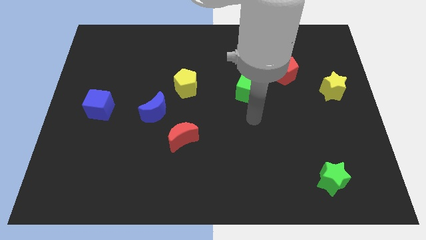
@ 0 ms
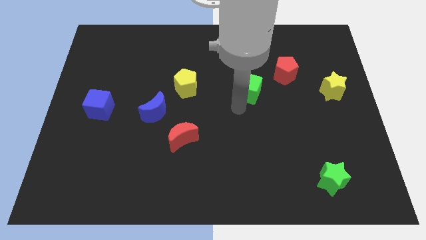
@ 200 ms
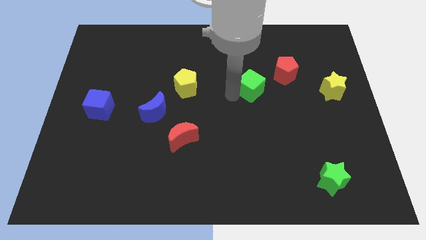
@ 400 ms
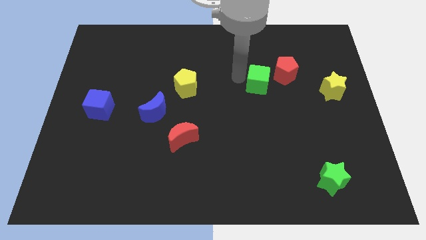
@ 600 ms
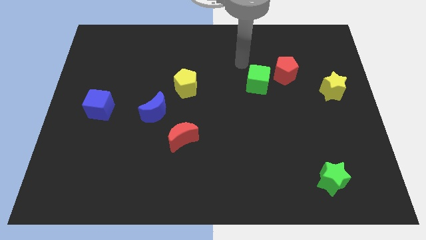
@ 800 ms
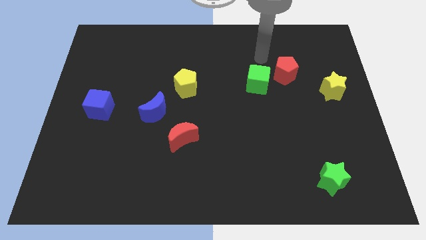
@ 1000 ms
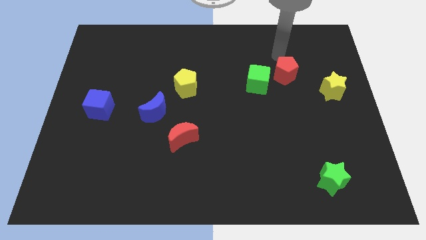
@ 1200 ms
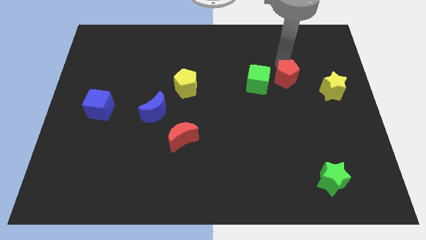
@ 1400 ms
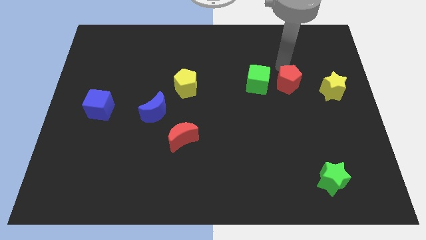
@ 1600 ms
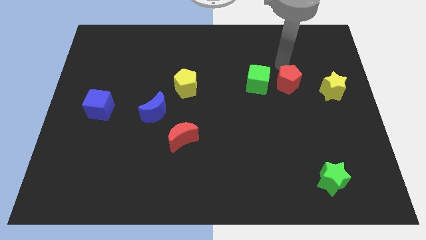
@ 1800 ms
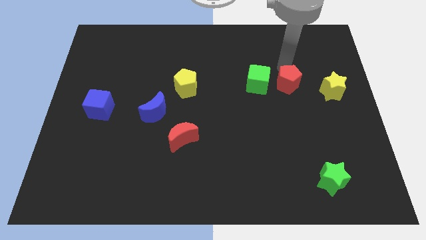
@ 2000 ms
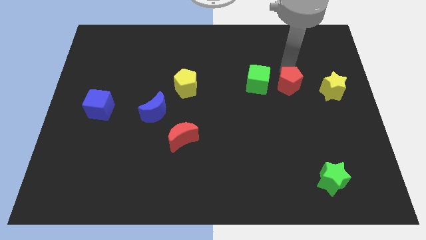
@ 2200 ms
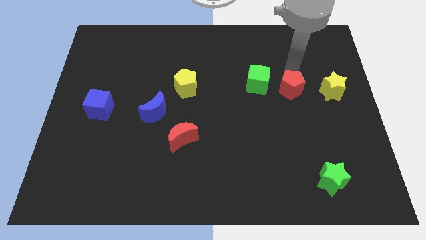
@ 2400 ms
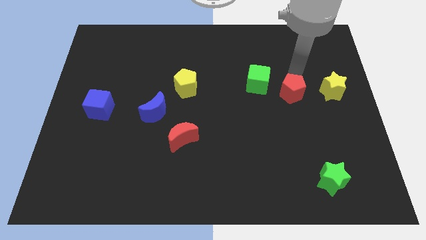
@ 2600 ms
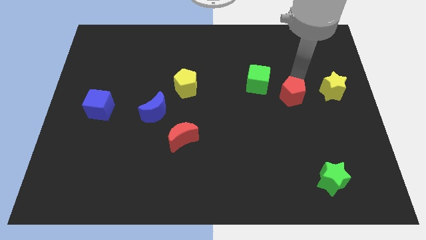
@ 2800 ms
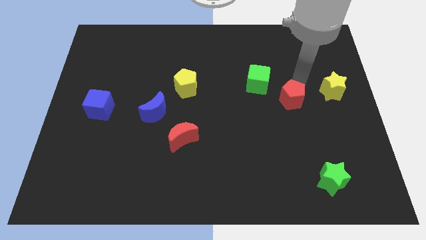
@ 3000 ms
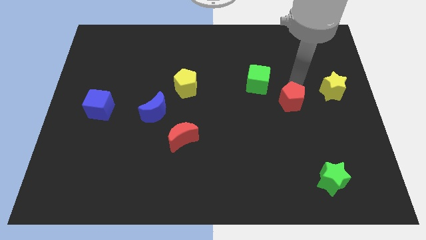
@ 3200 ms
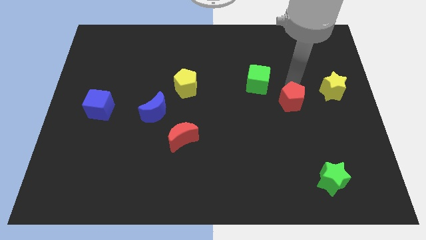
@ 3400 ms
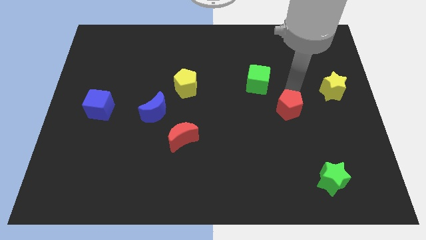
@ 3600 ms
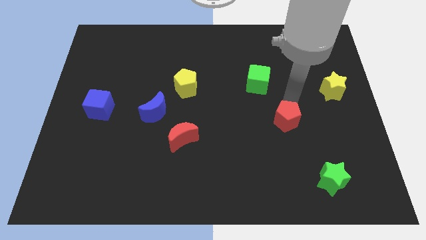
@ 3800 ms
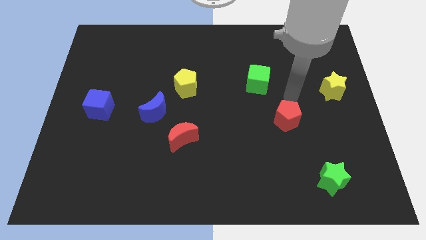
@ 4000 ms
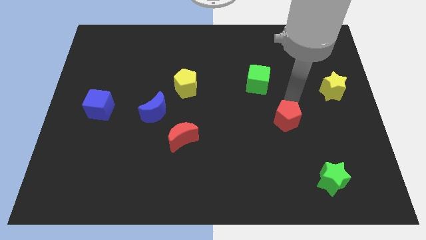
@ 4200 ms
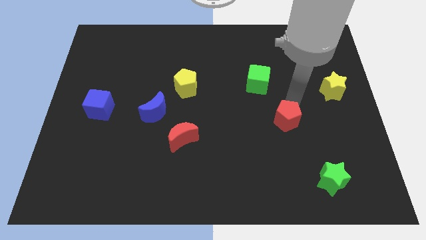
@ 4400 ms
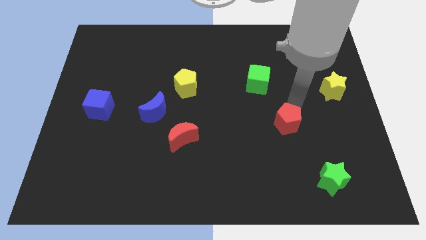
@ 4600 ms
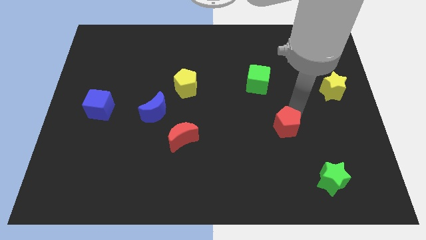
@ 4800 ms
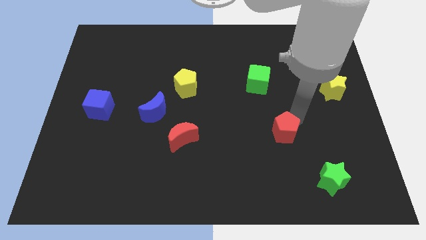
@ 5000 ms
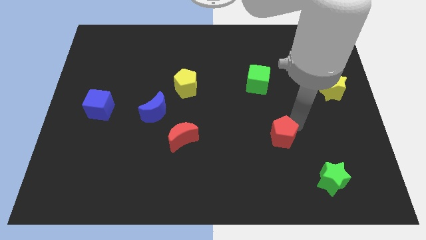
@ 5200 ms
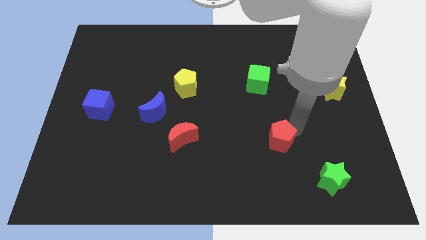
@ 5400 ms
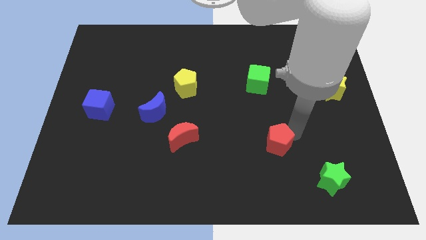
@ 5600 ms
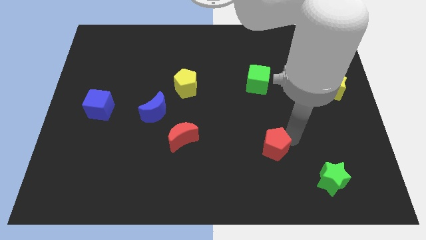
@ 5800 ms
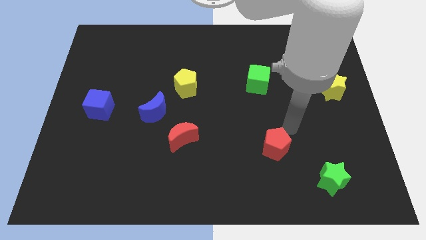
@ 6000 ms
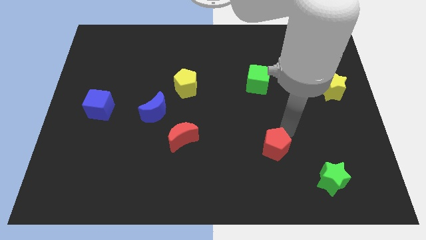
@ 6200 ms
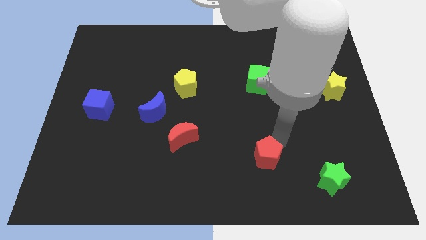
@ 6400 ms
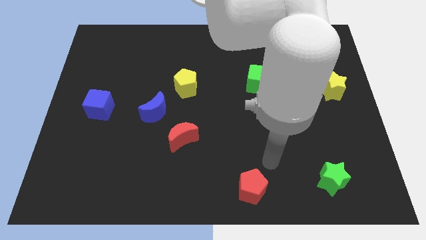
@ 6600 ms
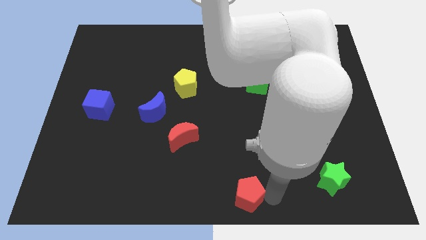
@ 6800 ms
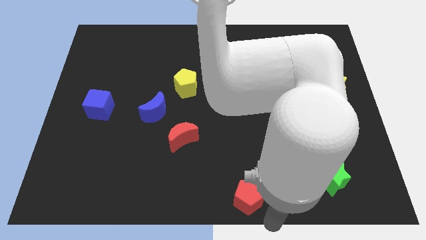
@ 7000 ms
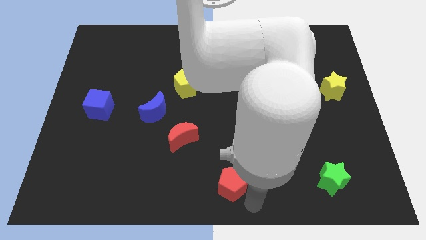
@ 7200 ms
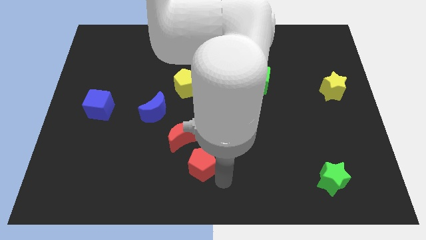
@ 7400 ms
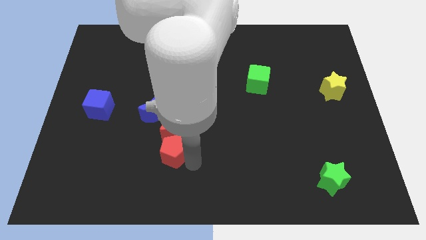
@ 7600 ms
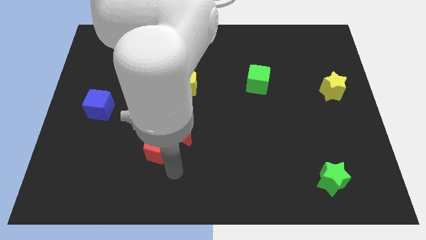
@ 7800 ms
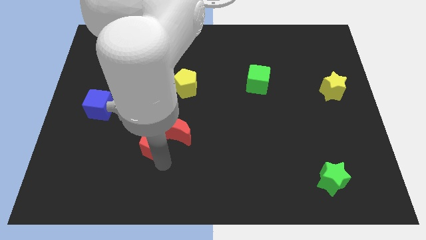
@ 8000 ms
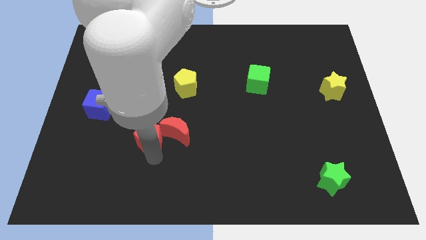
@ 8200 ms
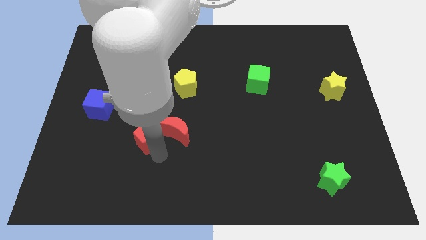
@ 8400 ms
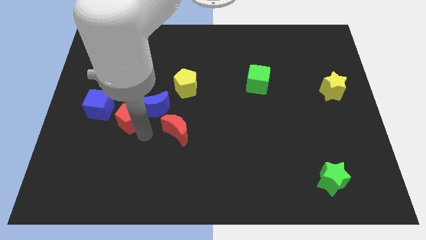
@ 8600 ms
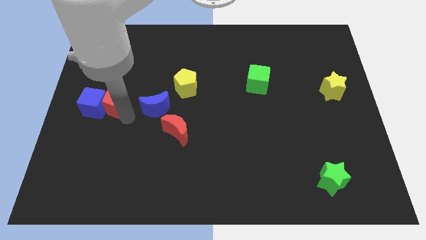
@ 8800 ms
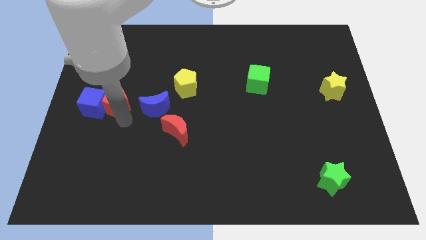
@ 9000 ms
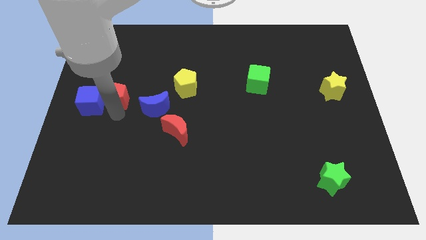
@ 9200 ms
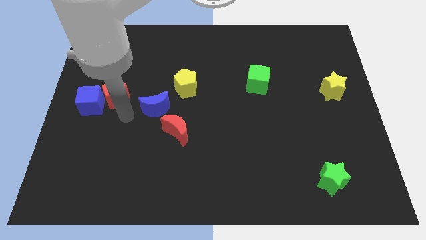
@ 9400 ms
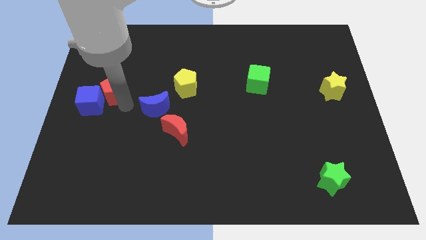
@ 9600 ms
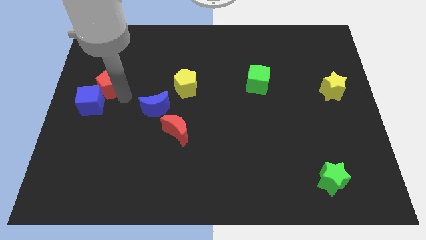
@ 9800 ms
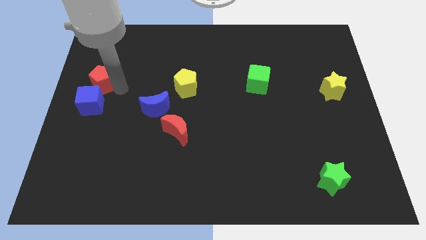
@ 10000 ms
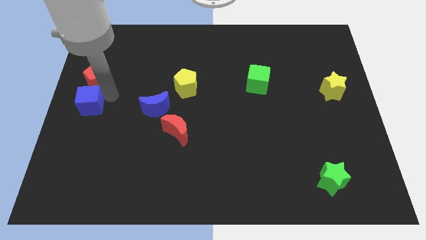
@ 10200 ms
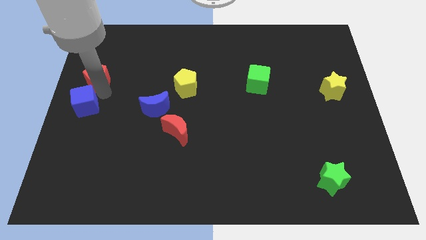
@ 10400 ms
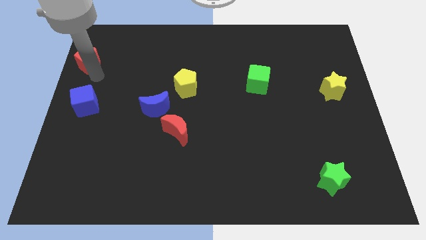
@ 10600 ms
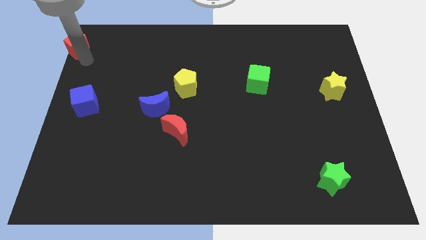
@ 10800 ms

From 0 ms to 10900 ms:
put the red pentagon to the top left of the board
